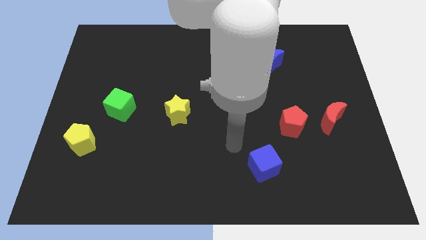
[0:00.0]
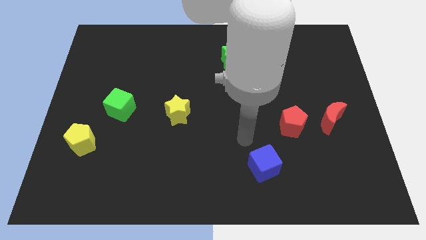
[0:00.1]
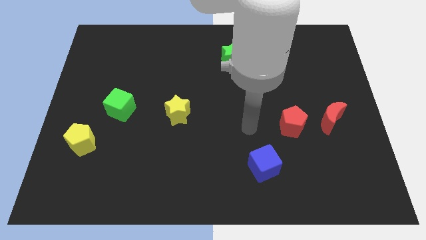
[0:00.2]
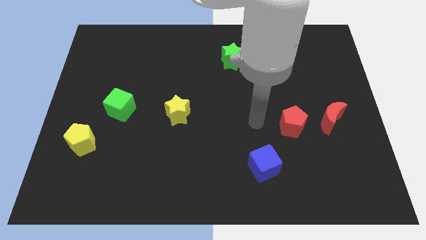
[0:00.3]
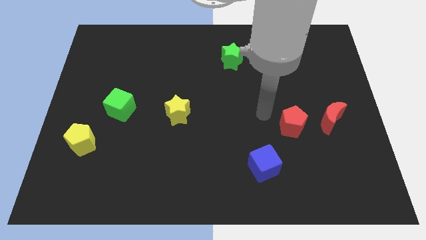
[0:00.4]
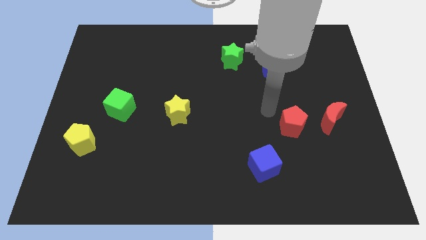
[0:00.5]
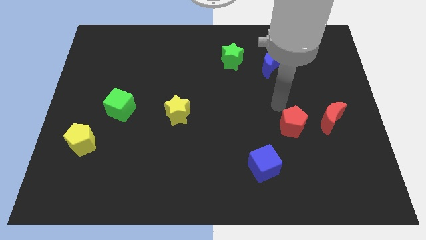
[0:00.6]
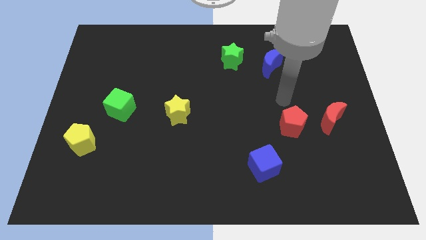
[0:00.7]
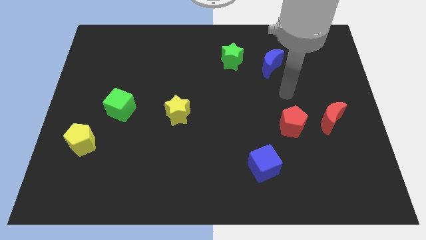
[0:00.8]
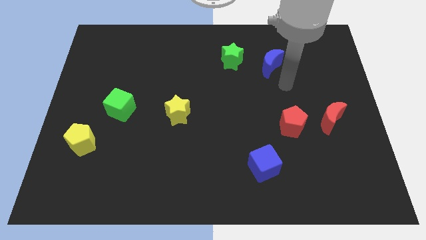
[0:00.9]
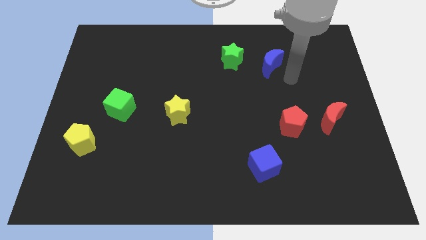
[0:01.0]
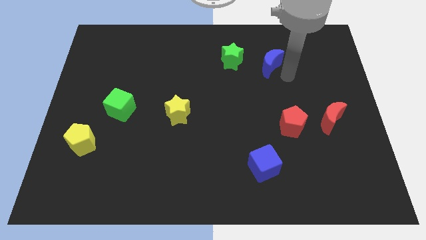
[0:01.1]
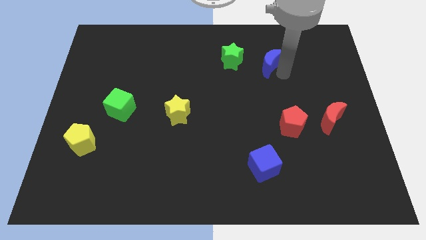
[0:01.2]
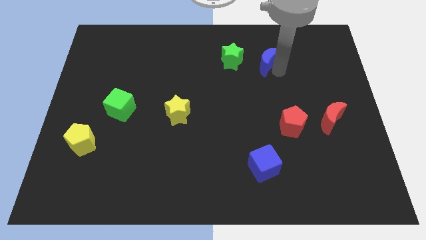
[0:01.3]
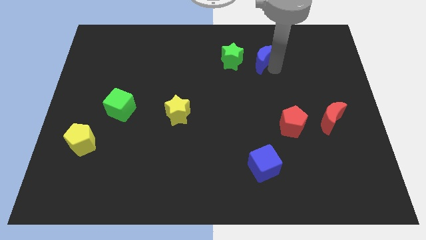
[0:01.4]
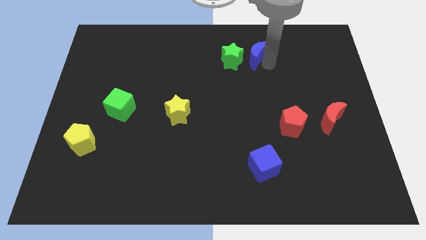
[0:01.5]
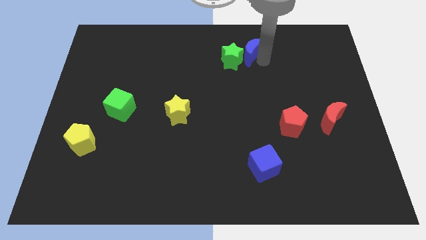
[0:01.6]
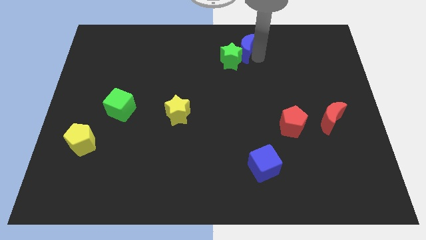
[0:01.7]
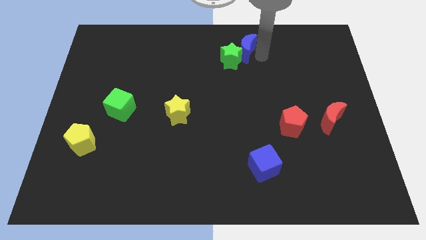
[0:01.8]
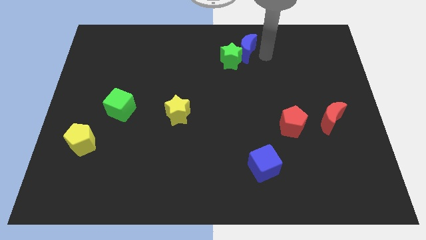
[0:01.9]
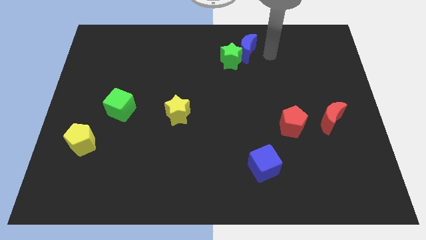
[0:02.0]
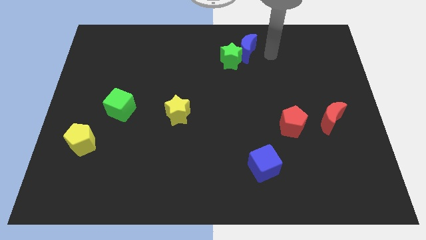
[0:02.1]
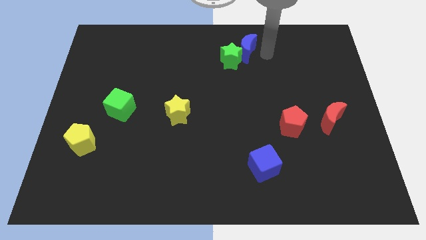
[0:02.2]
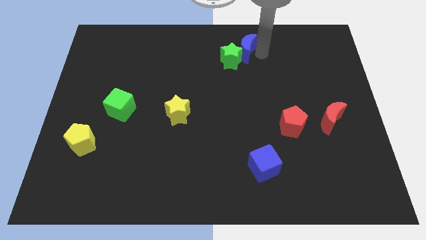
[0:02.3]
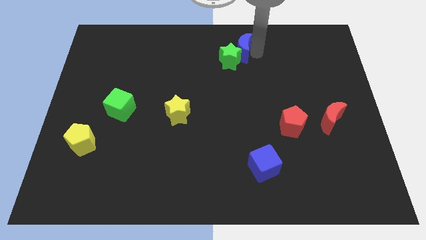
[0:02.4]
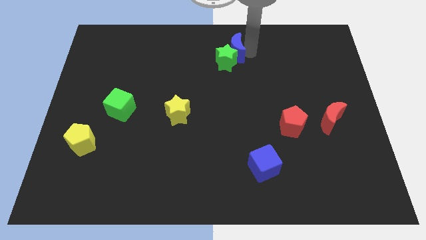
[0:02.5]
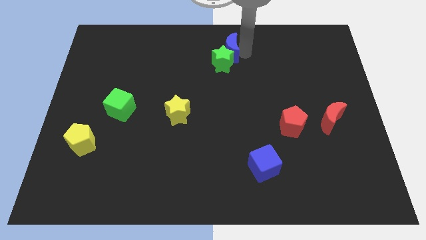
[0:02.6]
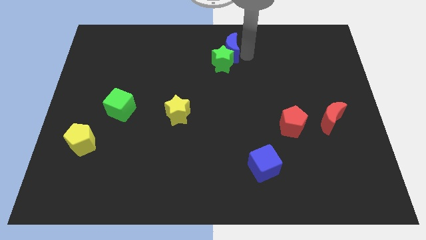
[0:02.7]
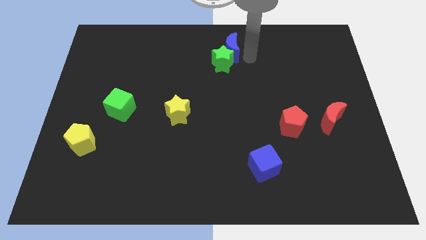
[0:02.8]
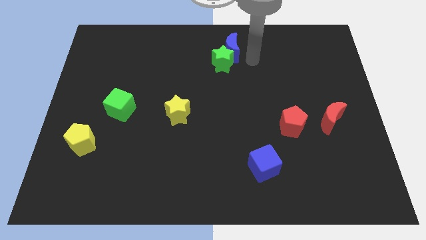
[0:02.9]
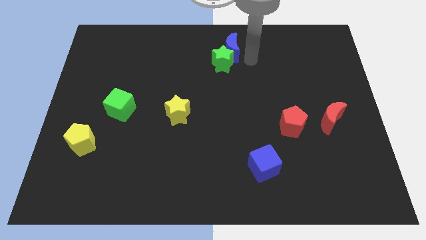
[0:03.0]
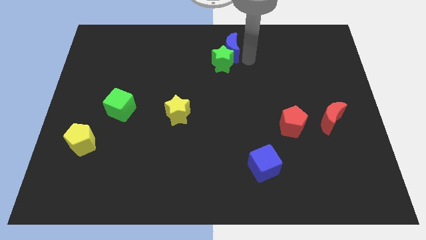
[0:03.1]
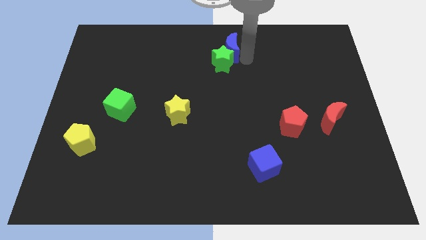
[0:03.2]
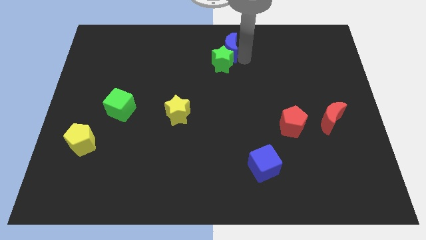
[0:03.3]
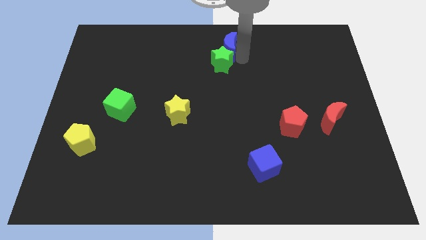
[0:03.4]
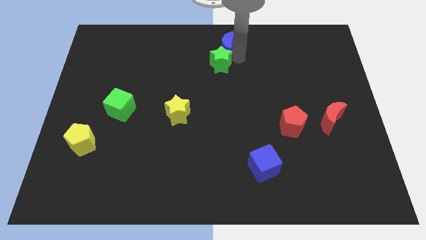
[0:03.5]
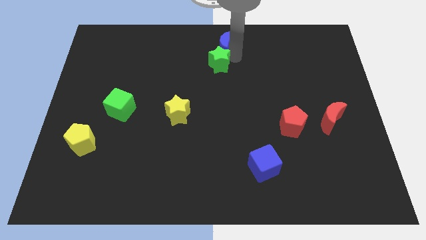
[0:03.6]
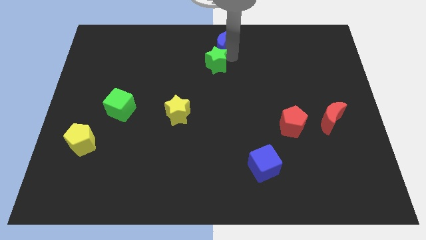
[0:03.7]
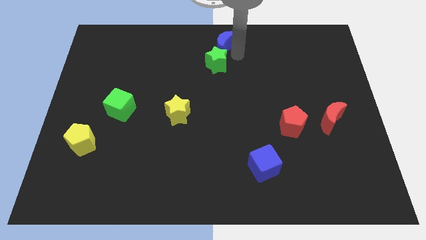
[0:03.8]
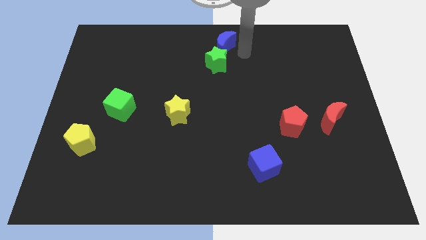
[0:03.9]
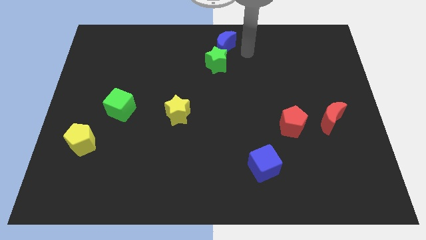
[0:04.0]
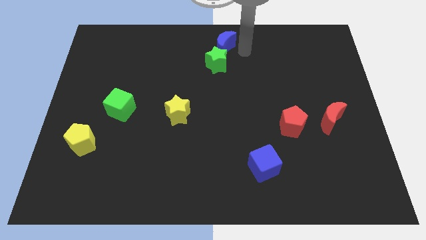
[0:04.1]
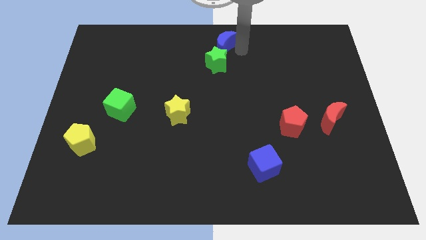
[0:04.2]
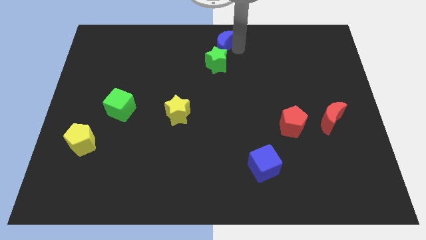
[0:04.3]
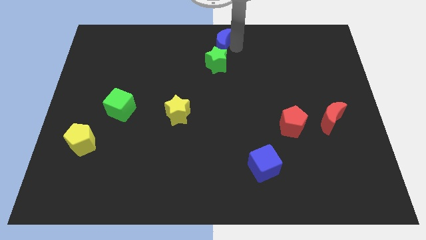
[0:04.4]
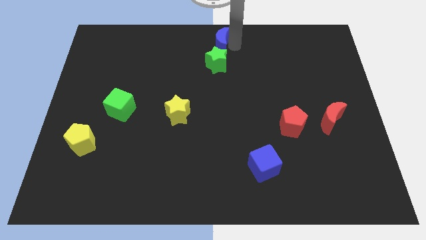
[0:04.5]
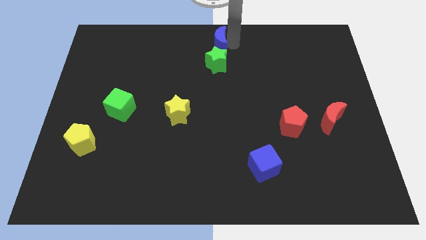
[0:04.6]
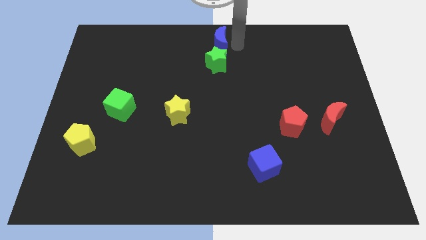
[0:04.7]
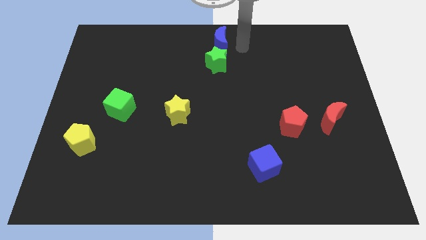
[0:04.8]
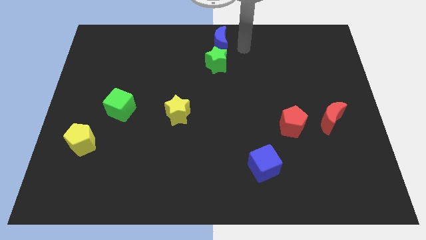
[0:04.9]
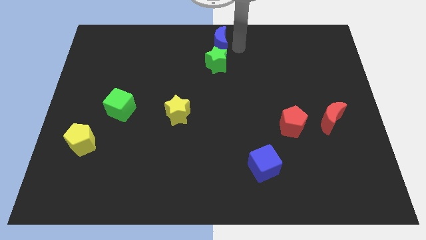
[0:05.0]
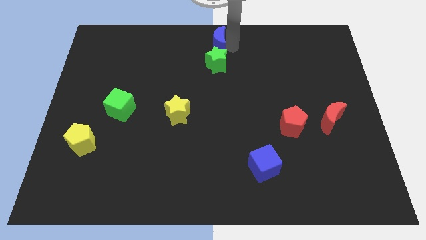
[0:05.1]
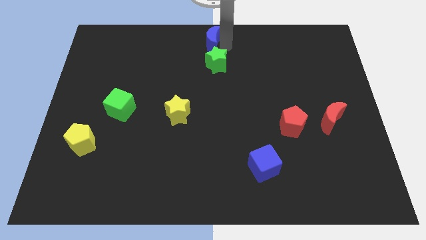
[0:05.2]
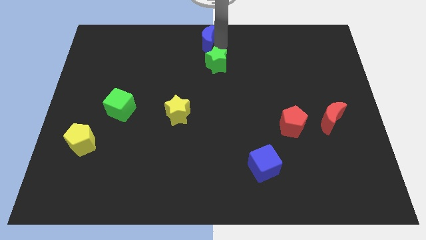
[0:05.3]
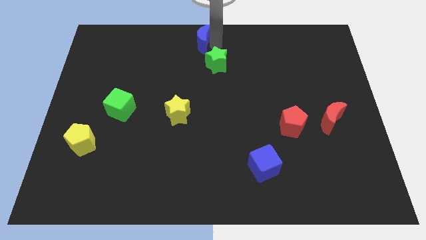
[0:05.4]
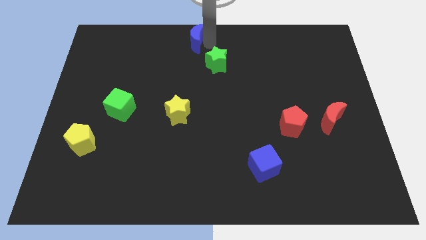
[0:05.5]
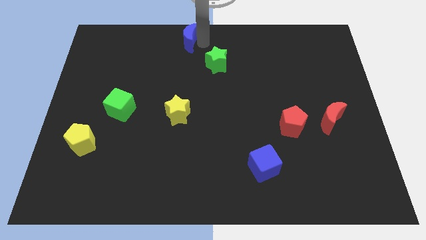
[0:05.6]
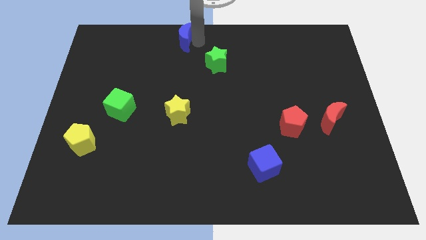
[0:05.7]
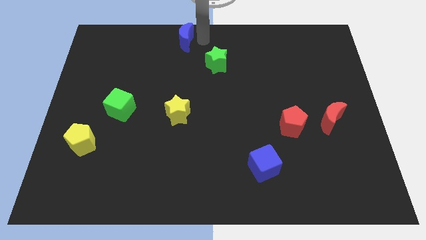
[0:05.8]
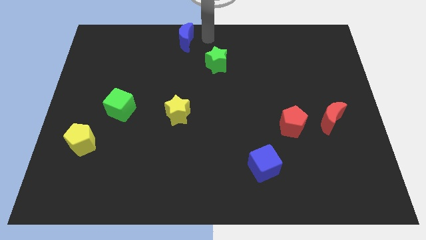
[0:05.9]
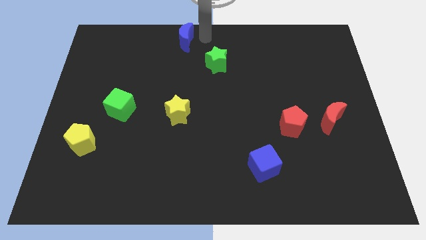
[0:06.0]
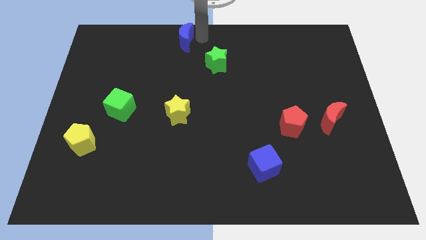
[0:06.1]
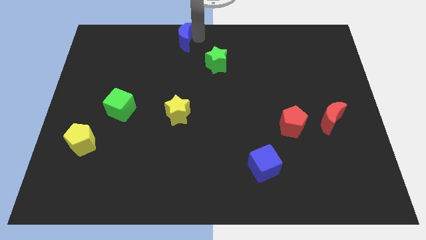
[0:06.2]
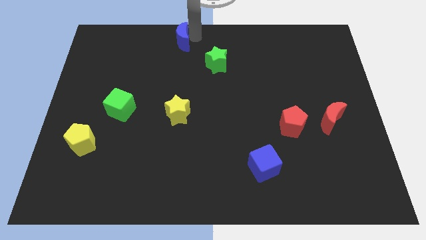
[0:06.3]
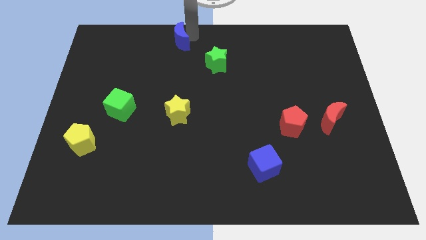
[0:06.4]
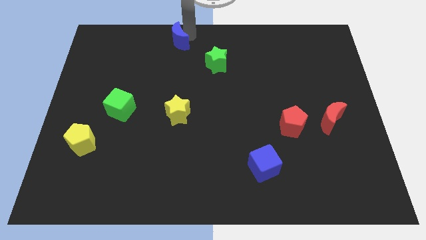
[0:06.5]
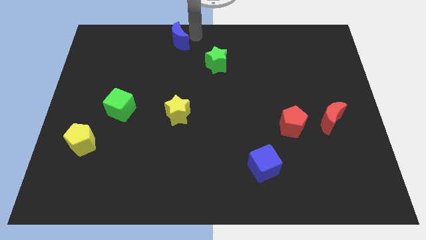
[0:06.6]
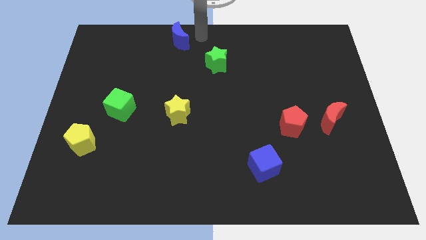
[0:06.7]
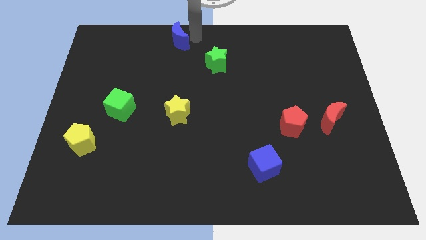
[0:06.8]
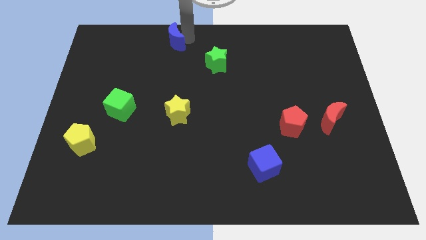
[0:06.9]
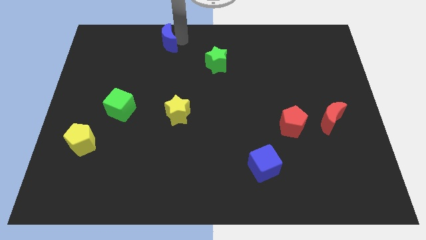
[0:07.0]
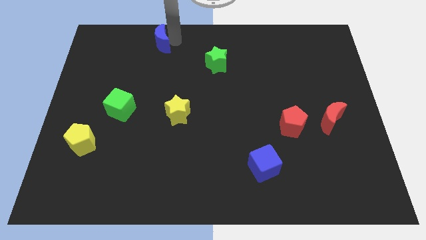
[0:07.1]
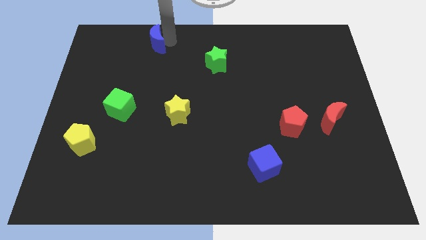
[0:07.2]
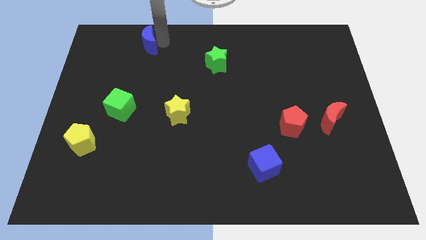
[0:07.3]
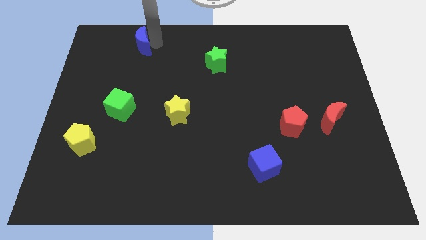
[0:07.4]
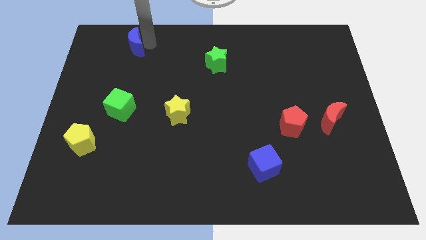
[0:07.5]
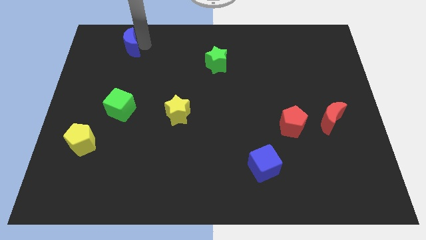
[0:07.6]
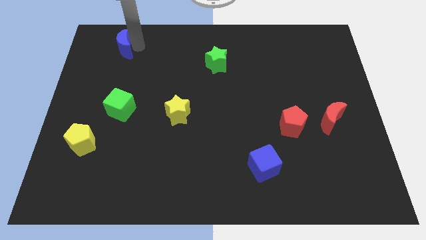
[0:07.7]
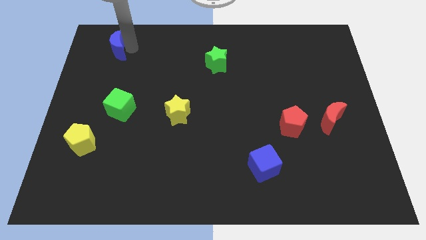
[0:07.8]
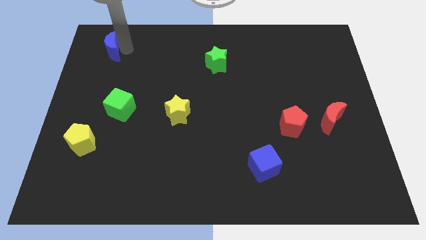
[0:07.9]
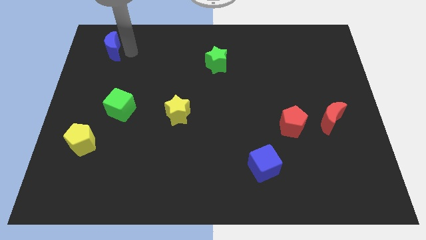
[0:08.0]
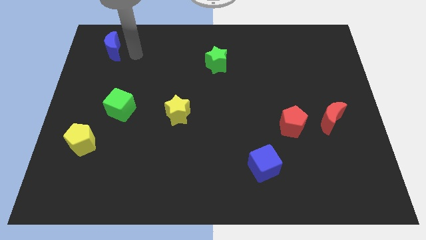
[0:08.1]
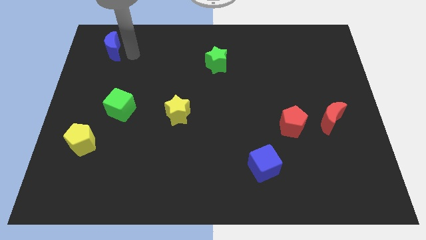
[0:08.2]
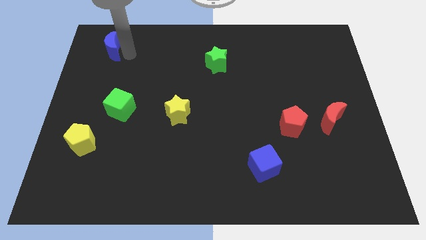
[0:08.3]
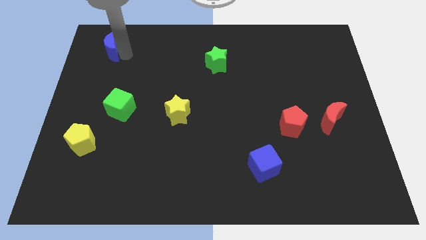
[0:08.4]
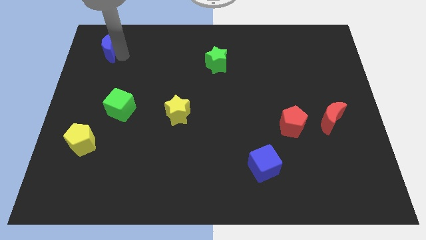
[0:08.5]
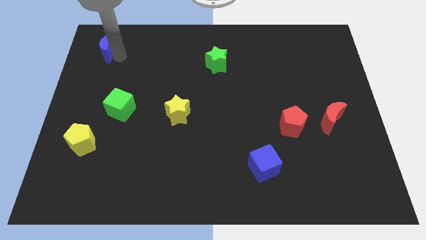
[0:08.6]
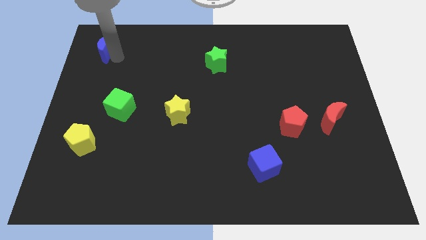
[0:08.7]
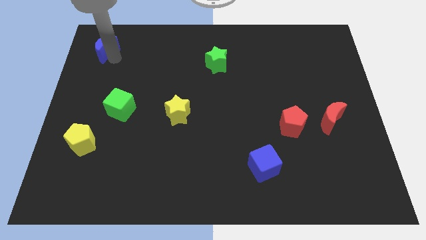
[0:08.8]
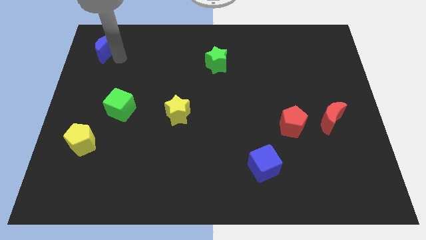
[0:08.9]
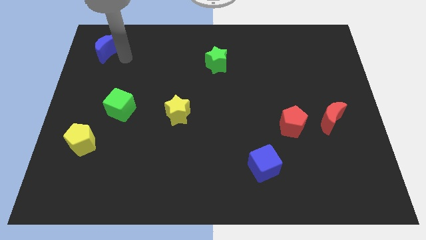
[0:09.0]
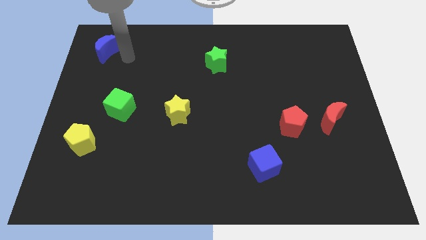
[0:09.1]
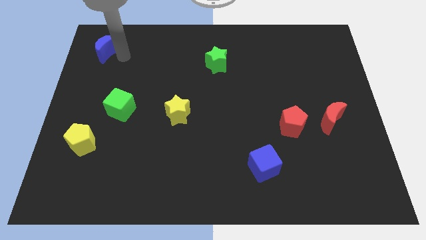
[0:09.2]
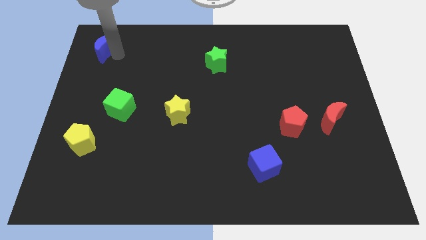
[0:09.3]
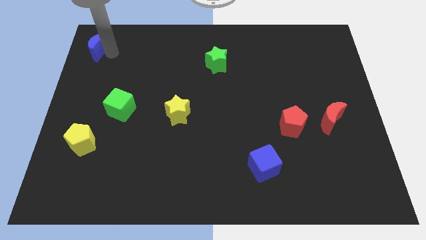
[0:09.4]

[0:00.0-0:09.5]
put the blue moon to the upper left corner
